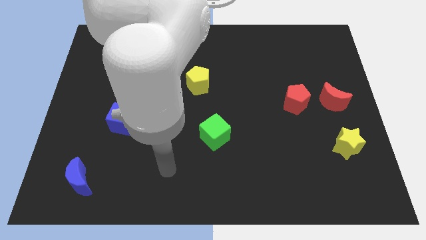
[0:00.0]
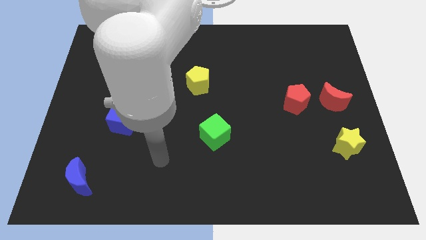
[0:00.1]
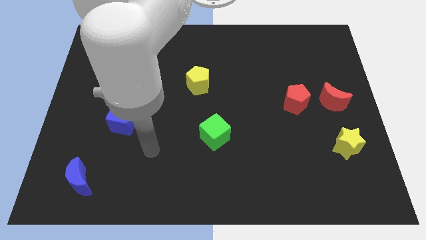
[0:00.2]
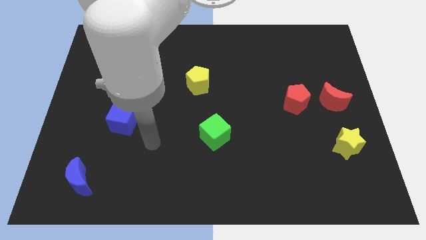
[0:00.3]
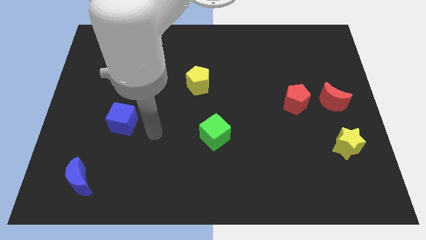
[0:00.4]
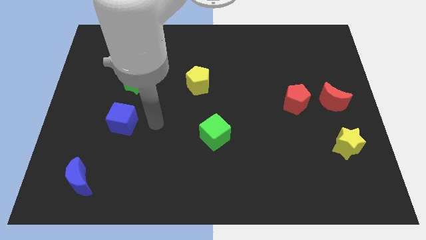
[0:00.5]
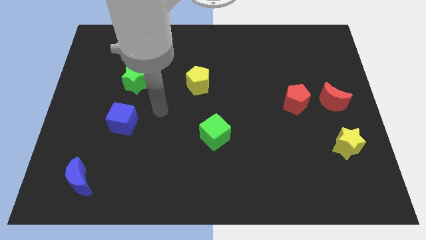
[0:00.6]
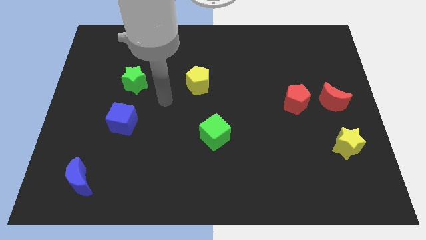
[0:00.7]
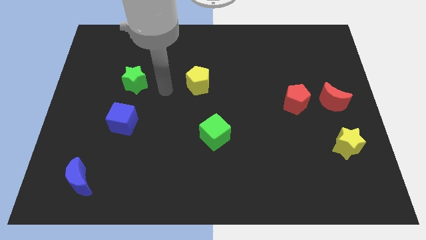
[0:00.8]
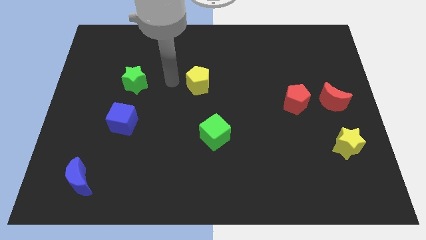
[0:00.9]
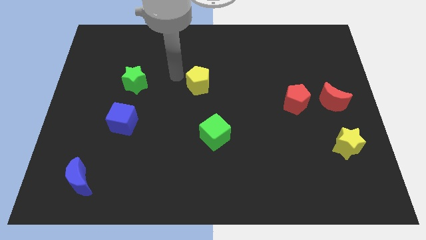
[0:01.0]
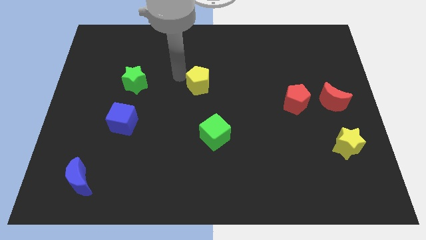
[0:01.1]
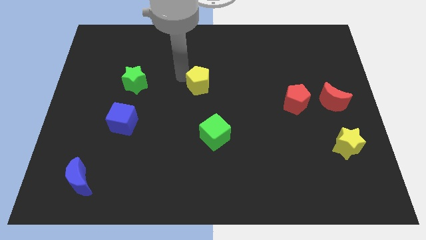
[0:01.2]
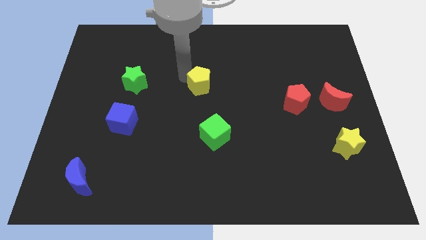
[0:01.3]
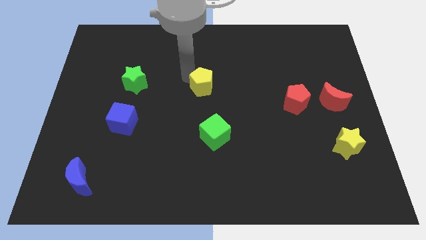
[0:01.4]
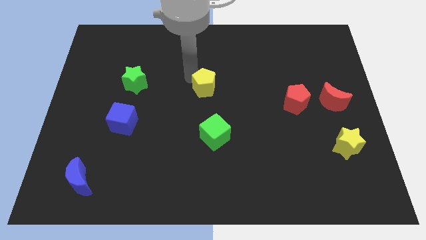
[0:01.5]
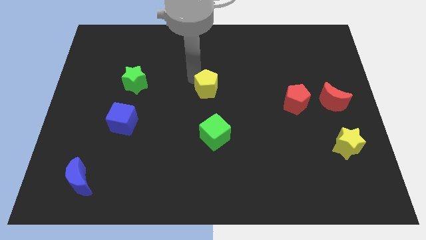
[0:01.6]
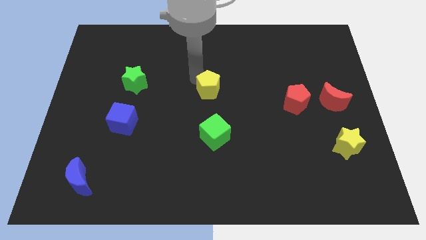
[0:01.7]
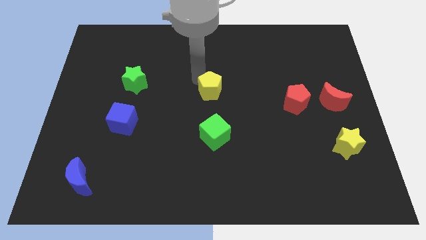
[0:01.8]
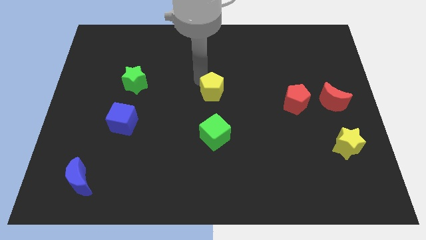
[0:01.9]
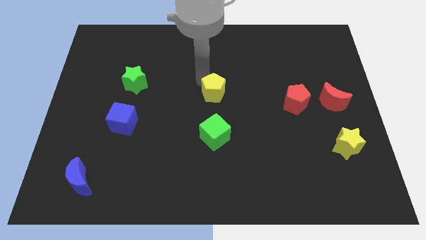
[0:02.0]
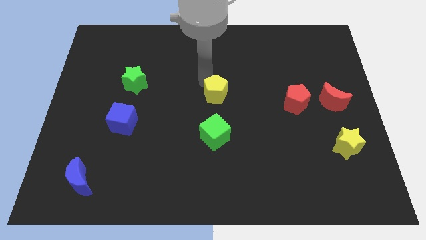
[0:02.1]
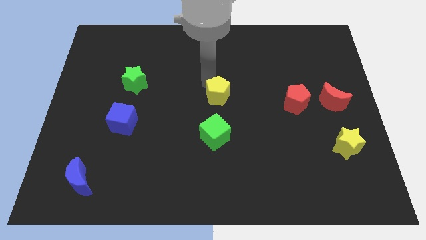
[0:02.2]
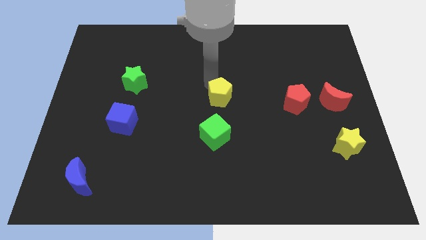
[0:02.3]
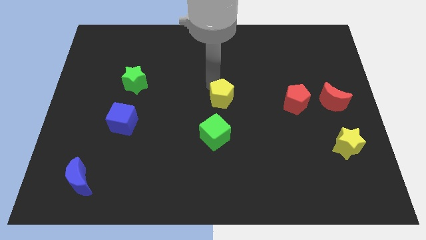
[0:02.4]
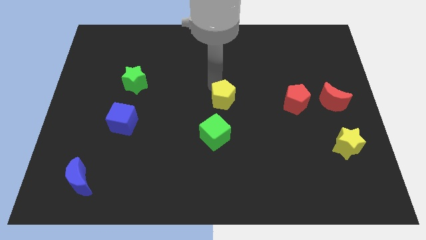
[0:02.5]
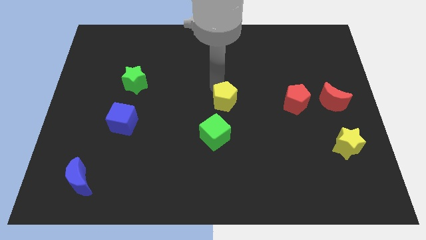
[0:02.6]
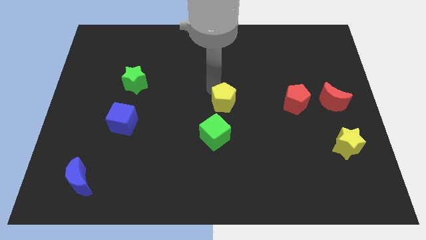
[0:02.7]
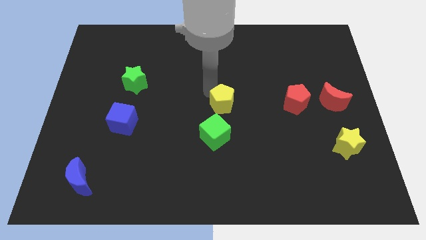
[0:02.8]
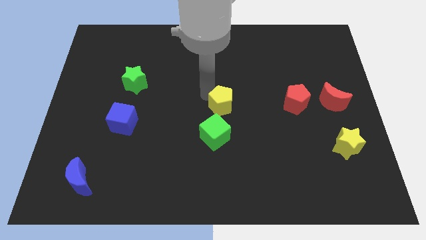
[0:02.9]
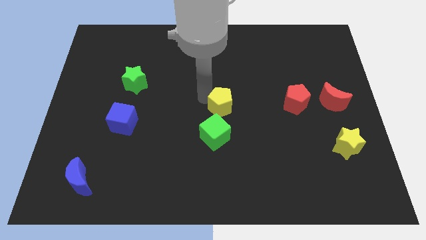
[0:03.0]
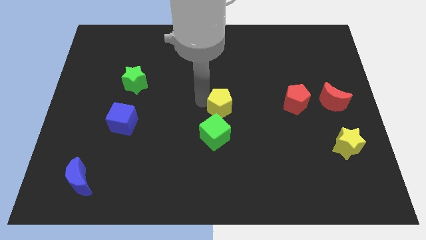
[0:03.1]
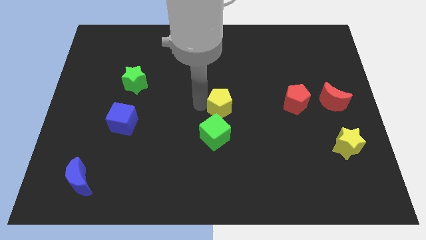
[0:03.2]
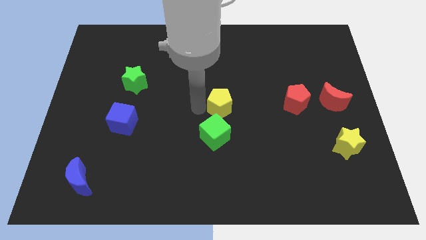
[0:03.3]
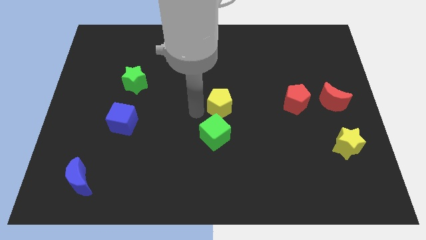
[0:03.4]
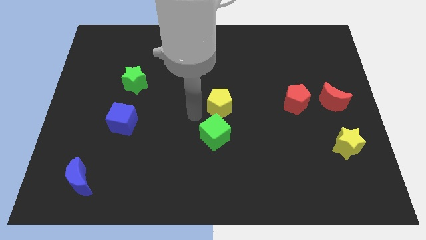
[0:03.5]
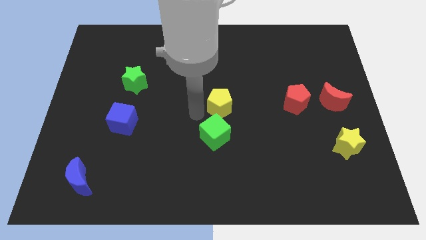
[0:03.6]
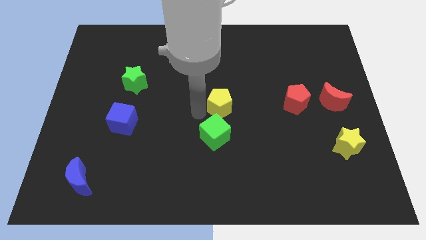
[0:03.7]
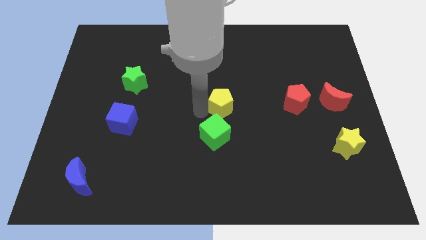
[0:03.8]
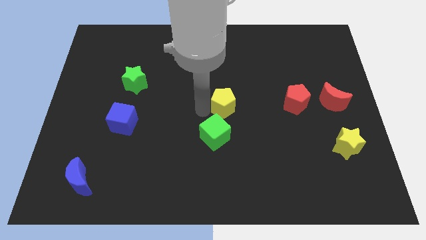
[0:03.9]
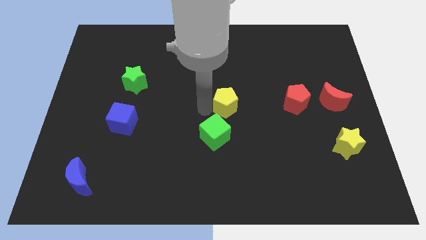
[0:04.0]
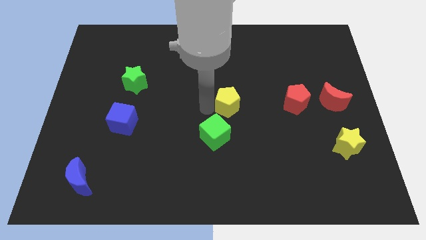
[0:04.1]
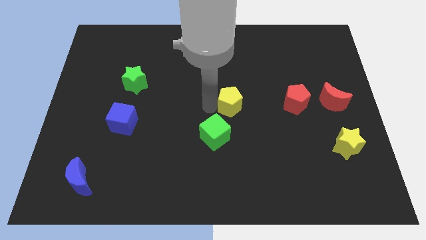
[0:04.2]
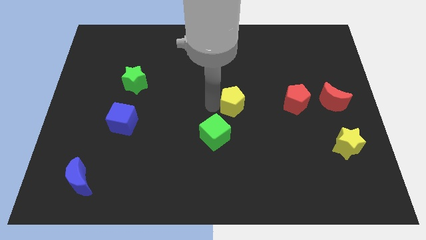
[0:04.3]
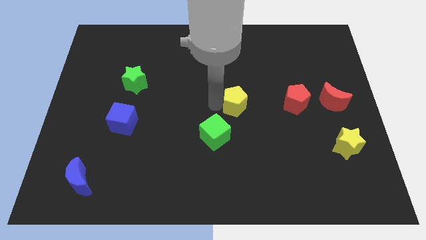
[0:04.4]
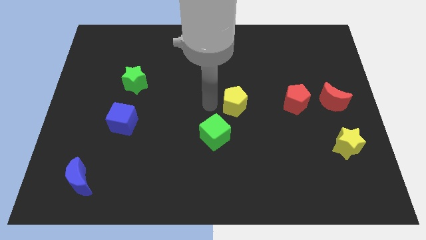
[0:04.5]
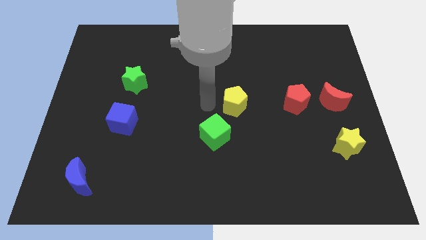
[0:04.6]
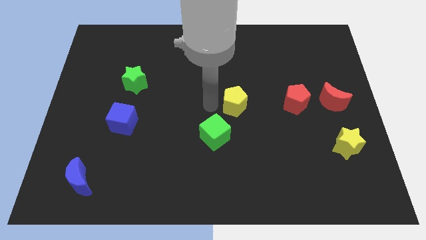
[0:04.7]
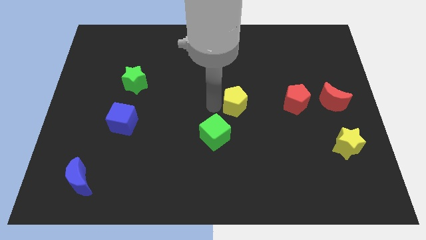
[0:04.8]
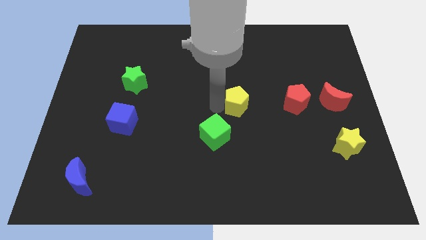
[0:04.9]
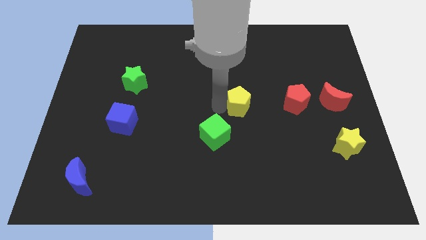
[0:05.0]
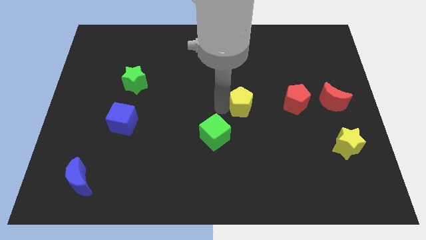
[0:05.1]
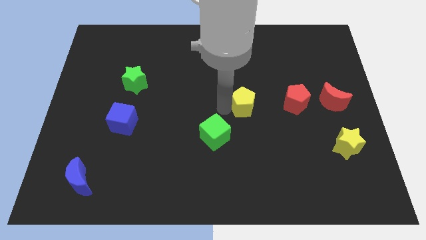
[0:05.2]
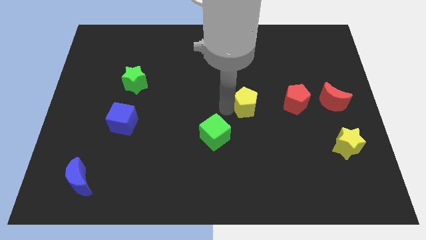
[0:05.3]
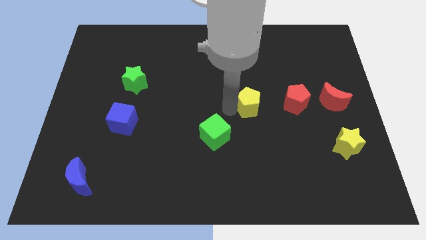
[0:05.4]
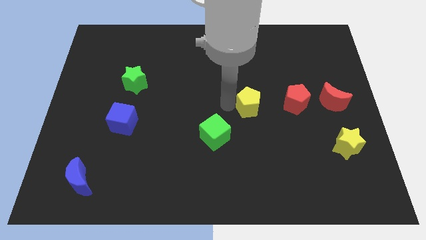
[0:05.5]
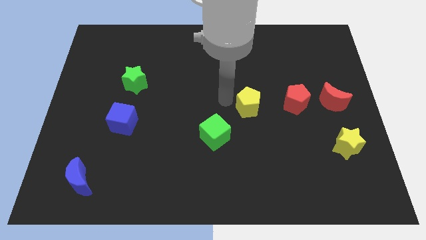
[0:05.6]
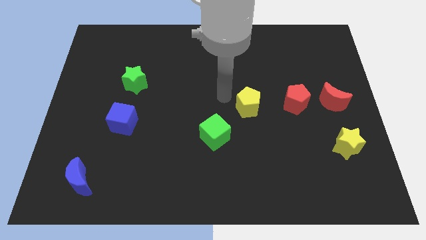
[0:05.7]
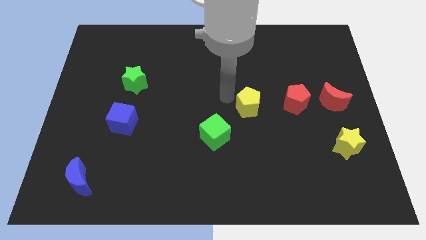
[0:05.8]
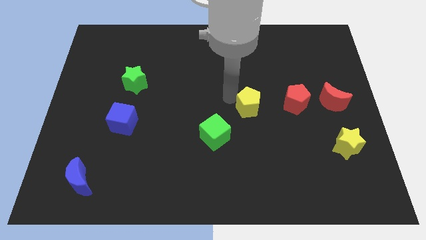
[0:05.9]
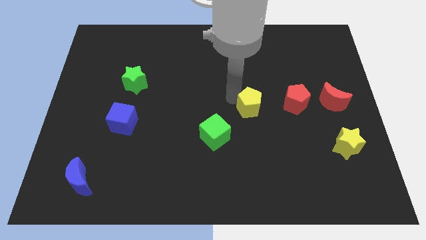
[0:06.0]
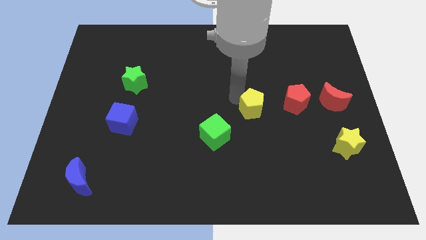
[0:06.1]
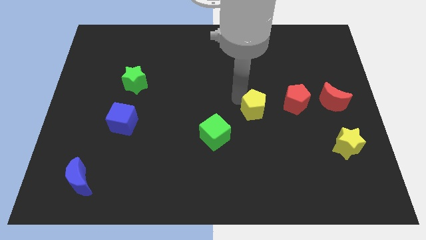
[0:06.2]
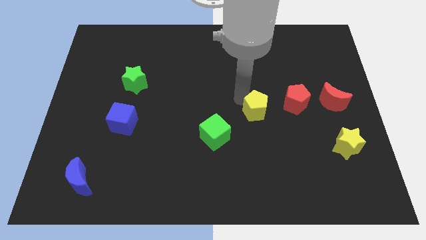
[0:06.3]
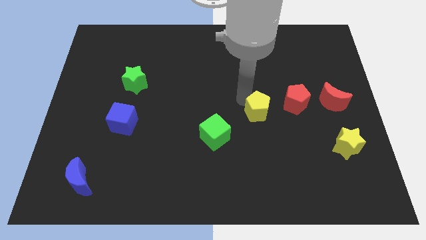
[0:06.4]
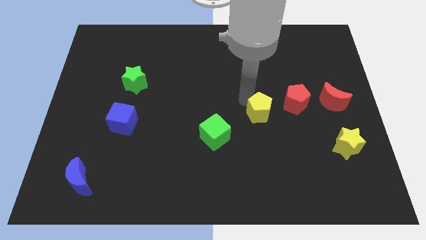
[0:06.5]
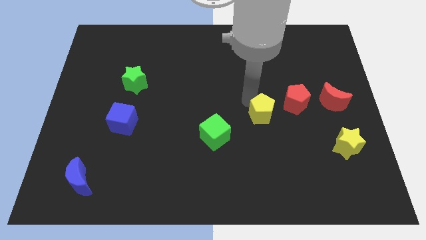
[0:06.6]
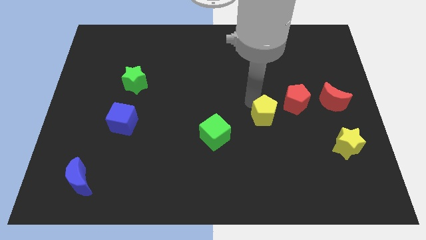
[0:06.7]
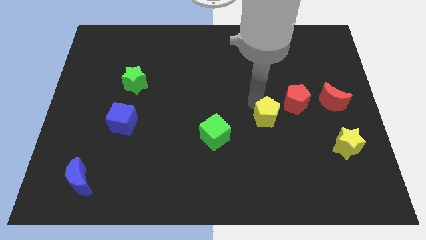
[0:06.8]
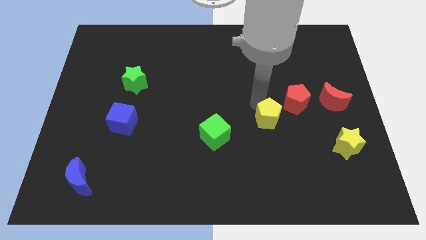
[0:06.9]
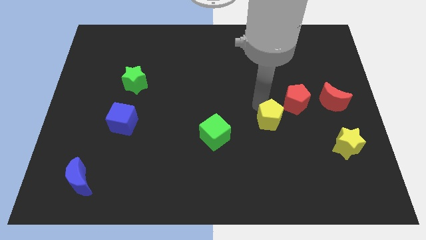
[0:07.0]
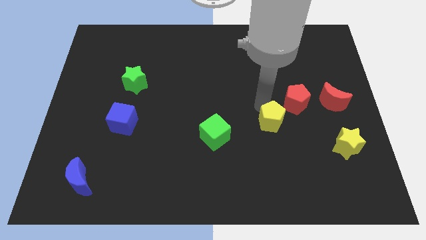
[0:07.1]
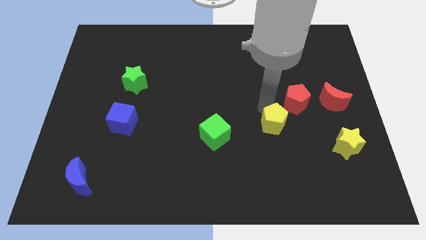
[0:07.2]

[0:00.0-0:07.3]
move the yellow pentagon down and then right

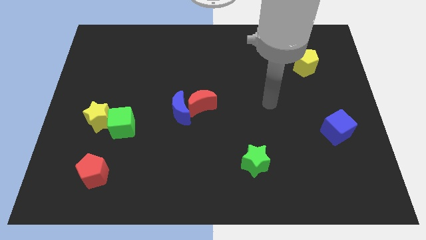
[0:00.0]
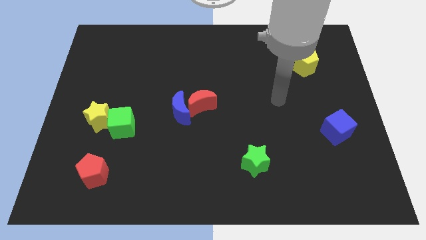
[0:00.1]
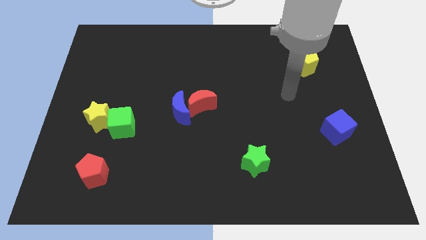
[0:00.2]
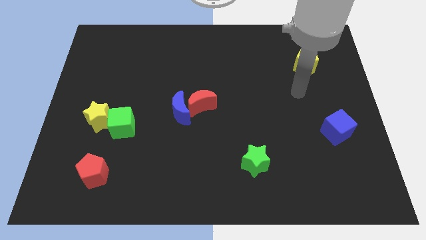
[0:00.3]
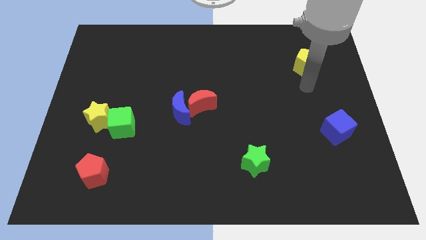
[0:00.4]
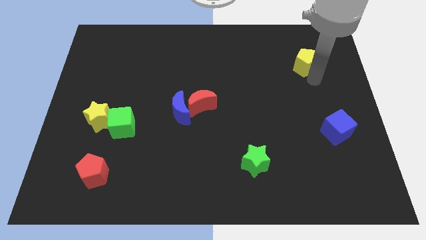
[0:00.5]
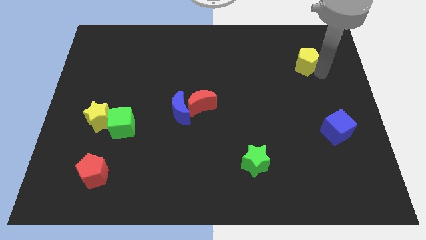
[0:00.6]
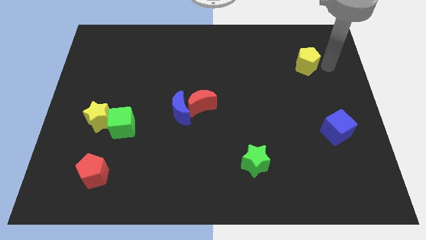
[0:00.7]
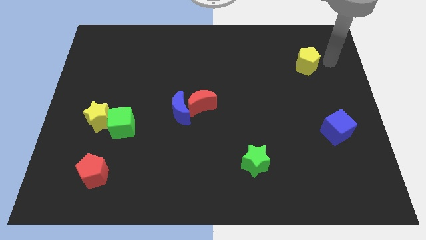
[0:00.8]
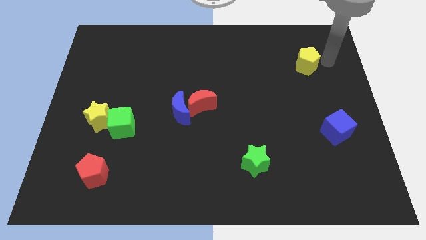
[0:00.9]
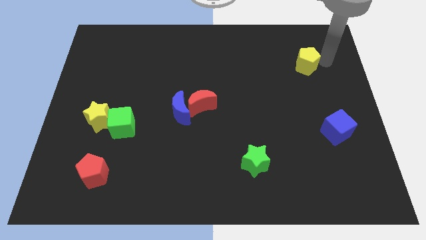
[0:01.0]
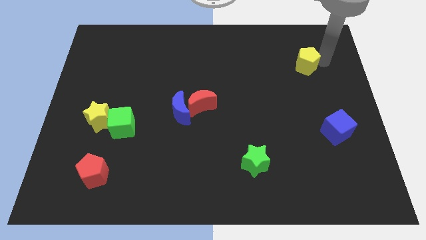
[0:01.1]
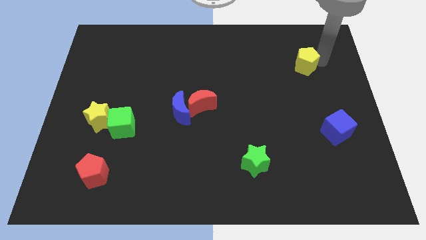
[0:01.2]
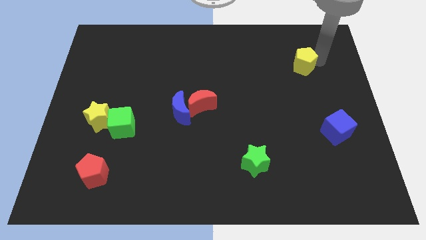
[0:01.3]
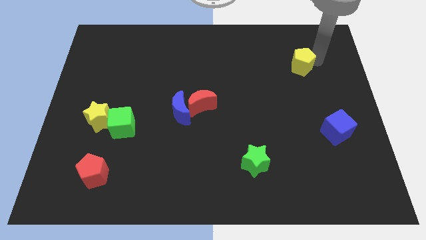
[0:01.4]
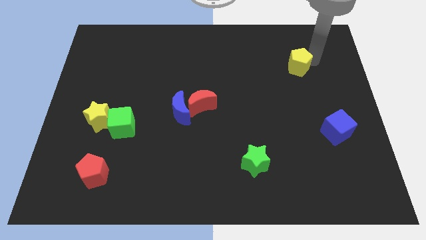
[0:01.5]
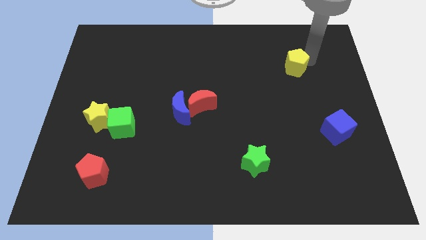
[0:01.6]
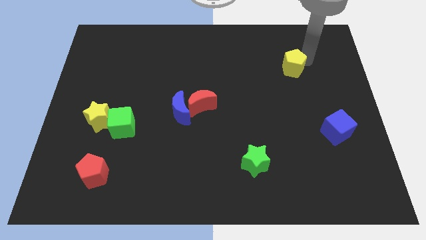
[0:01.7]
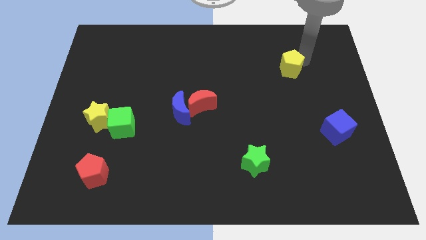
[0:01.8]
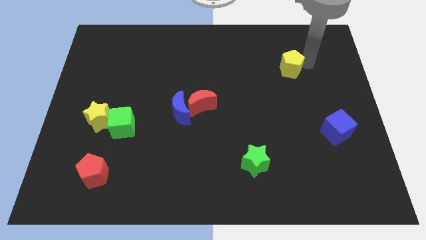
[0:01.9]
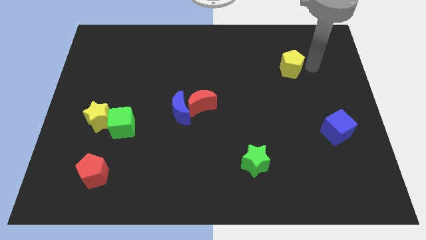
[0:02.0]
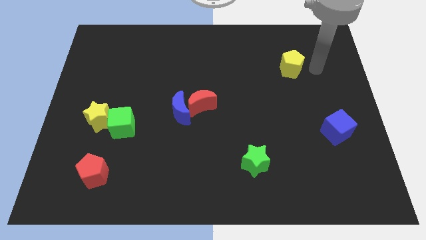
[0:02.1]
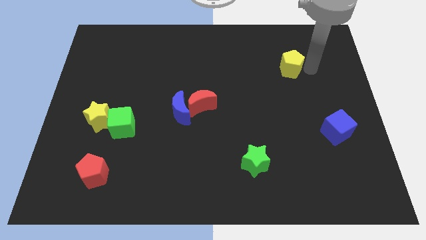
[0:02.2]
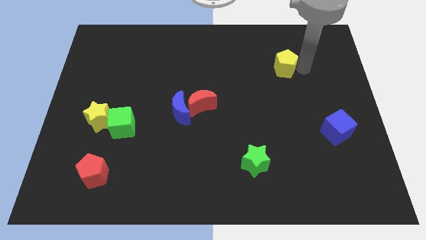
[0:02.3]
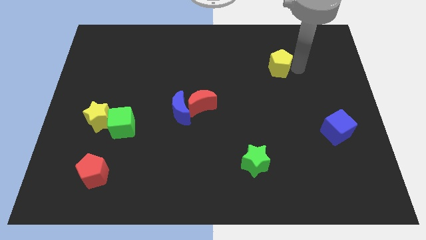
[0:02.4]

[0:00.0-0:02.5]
move the yellow pentagon to the left somewhat
